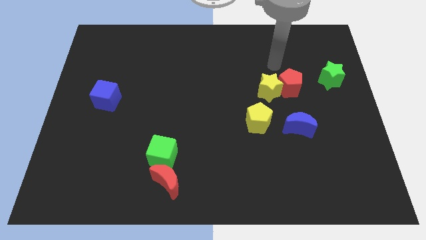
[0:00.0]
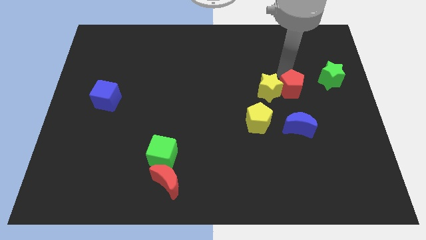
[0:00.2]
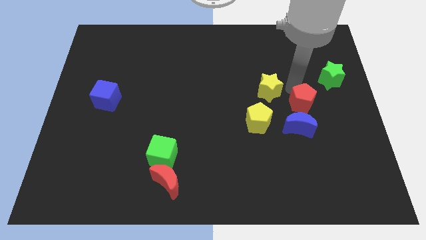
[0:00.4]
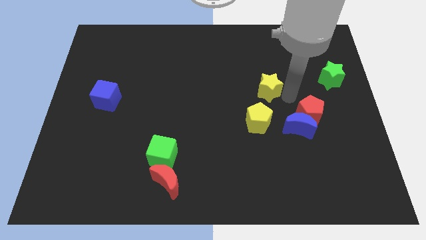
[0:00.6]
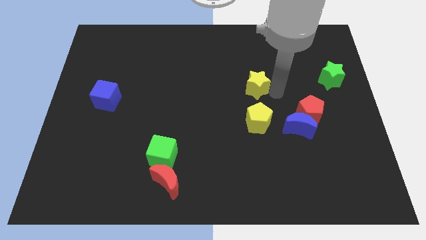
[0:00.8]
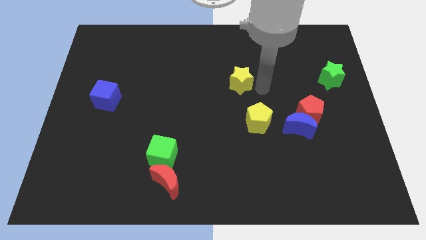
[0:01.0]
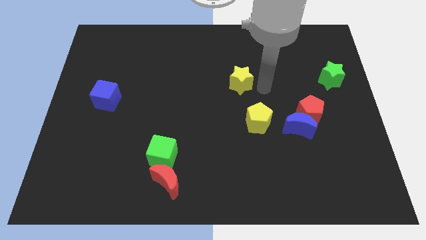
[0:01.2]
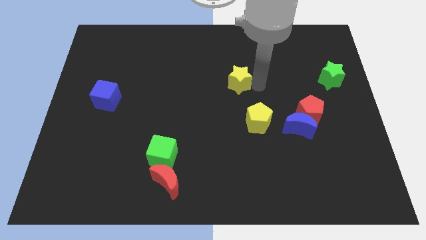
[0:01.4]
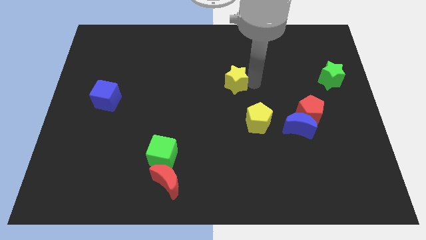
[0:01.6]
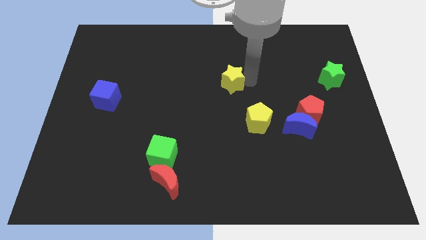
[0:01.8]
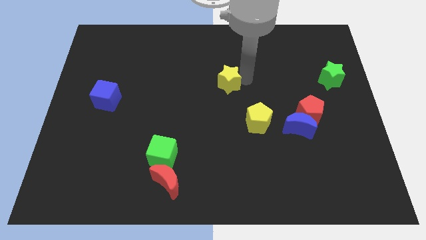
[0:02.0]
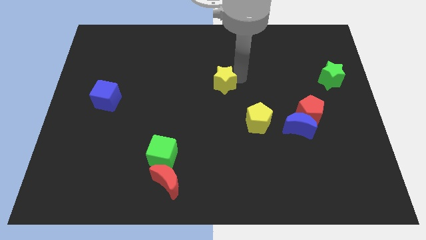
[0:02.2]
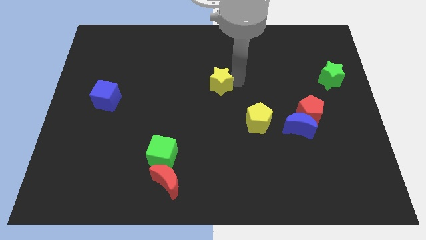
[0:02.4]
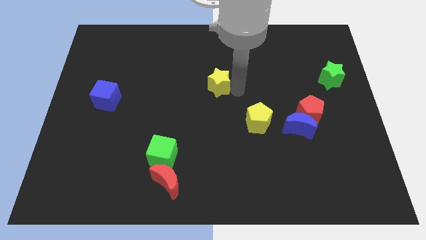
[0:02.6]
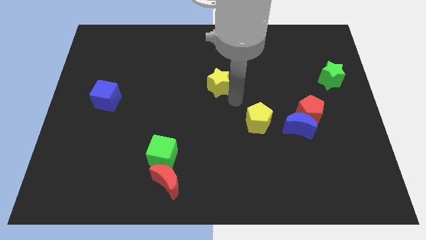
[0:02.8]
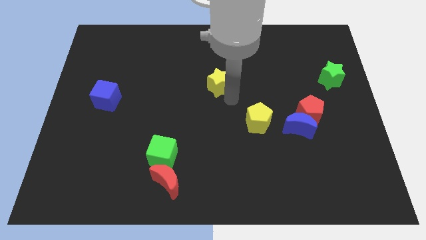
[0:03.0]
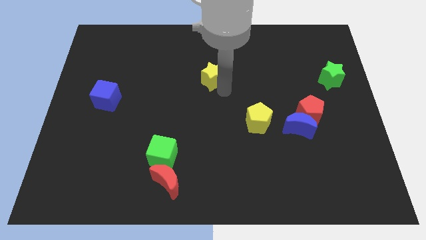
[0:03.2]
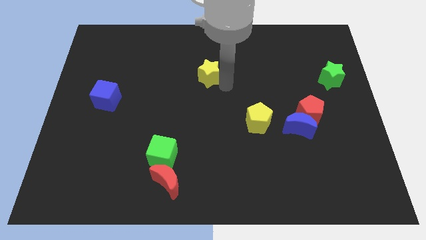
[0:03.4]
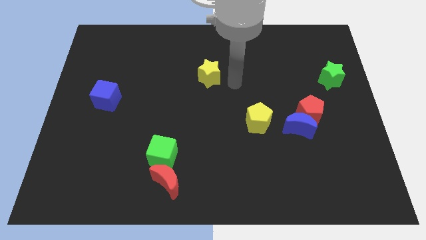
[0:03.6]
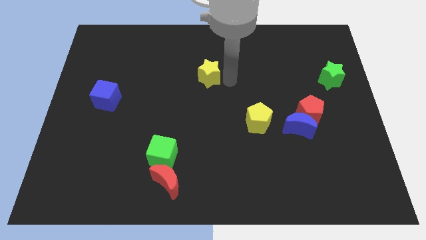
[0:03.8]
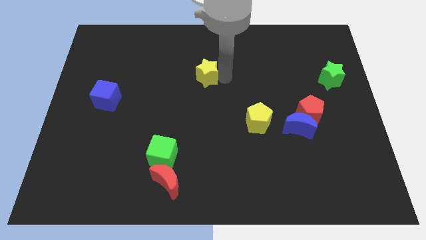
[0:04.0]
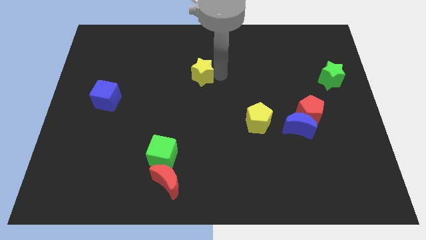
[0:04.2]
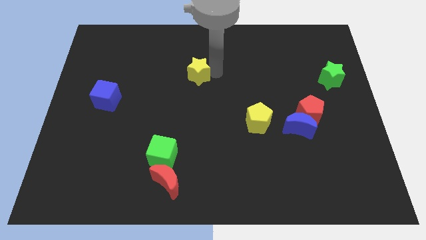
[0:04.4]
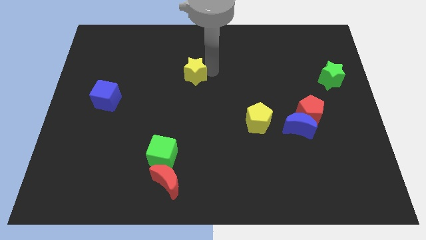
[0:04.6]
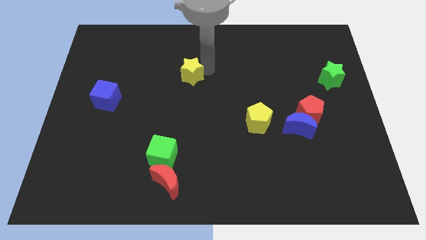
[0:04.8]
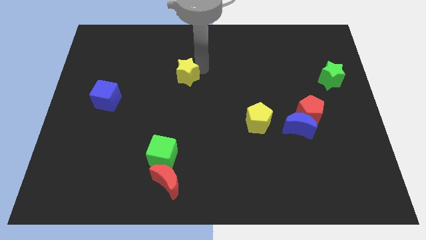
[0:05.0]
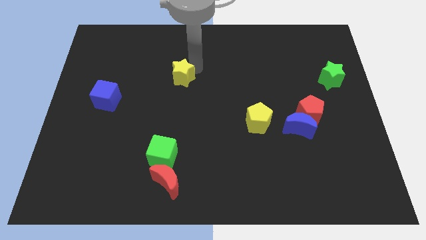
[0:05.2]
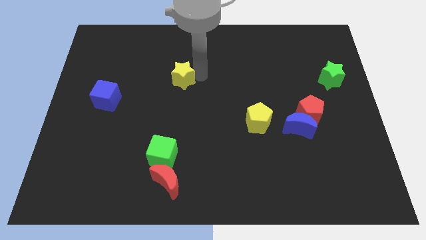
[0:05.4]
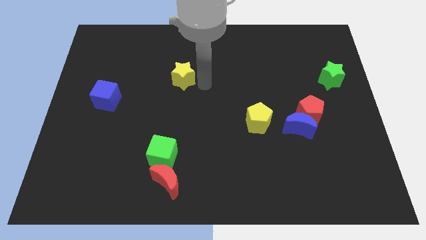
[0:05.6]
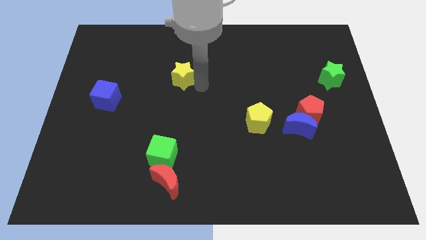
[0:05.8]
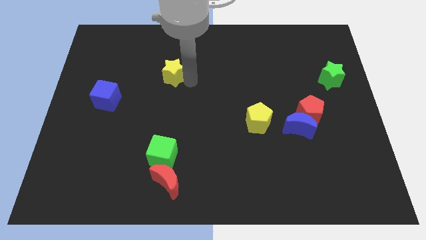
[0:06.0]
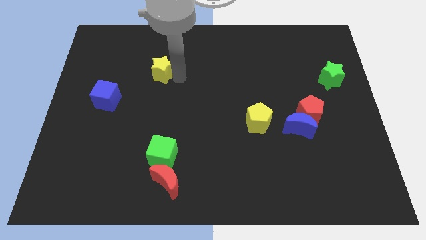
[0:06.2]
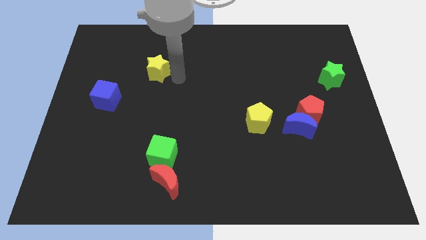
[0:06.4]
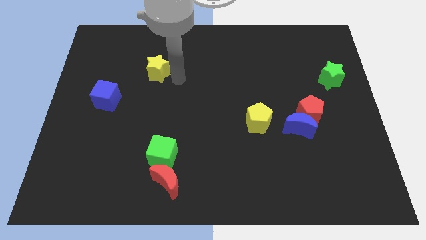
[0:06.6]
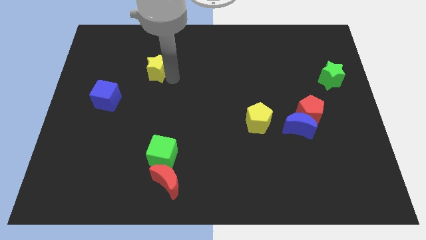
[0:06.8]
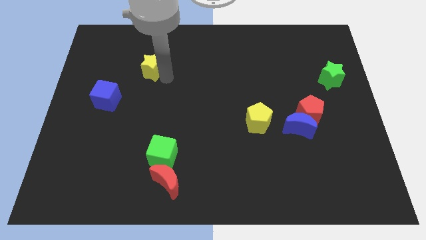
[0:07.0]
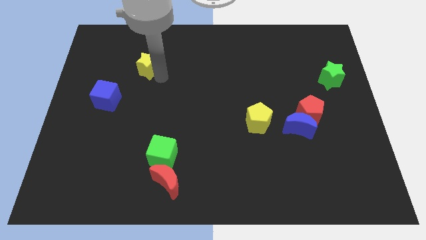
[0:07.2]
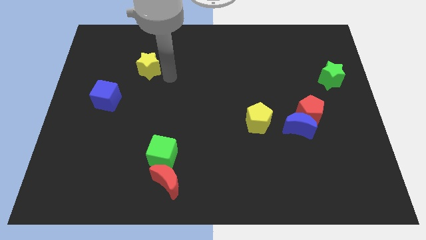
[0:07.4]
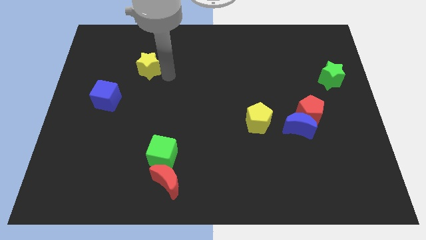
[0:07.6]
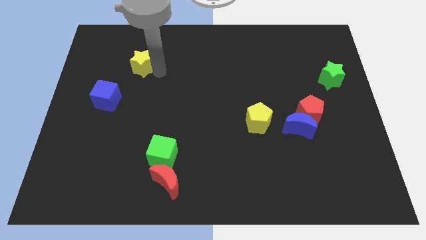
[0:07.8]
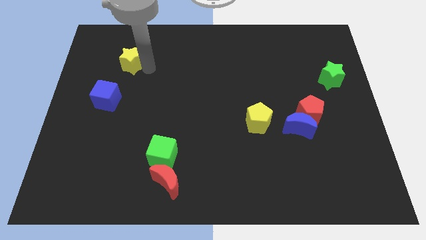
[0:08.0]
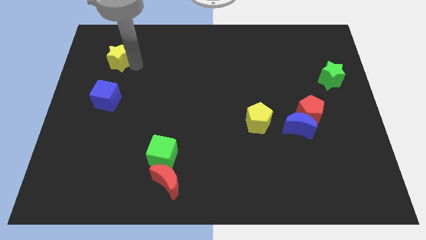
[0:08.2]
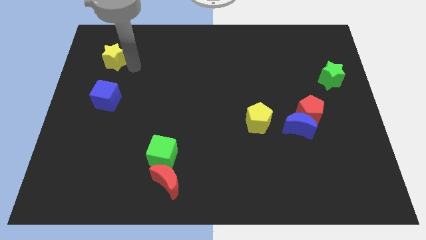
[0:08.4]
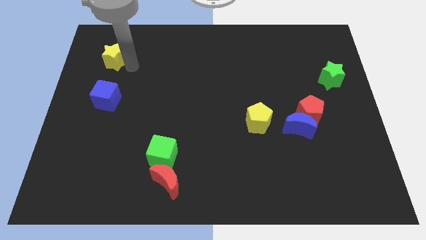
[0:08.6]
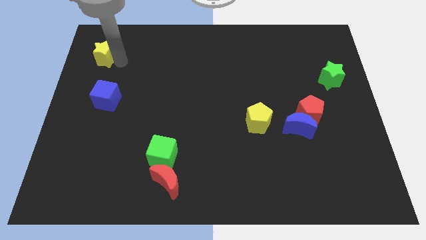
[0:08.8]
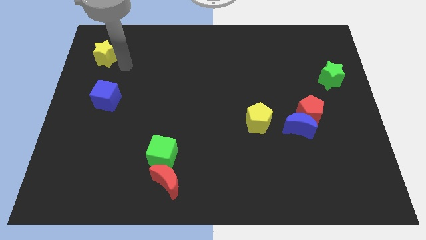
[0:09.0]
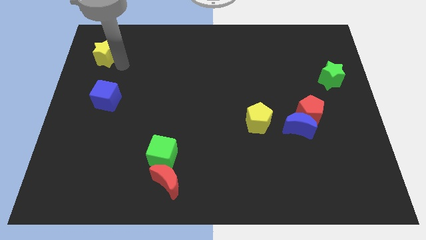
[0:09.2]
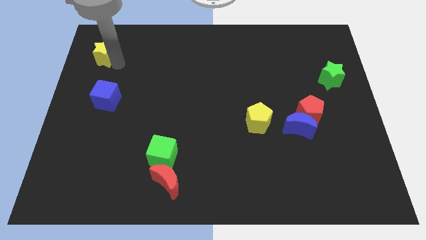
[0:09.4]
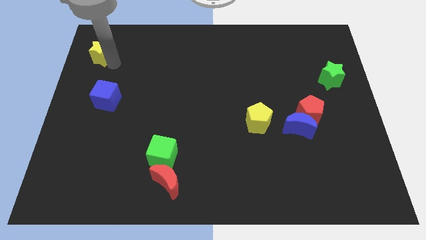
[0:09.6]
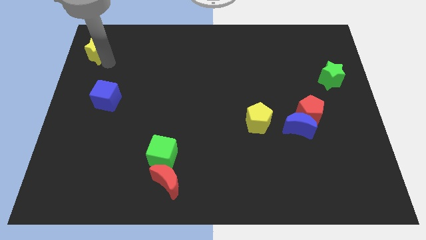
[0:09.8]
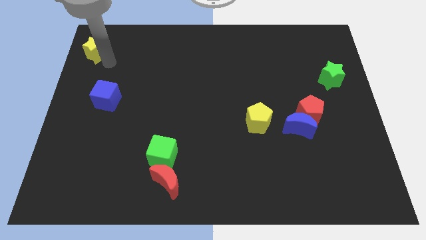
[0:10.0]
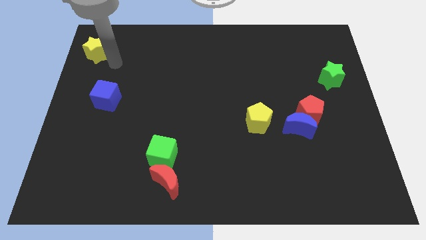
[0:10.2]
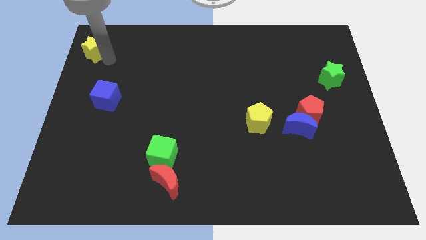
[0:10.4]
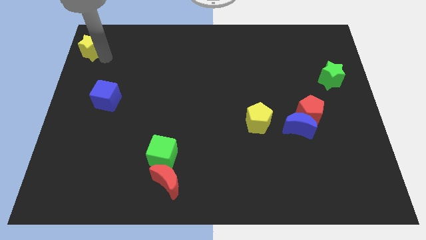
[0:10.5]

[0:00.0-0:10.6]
slide the yellow star to the top left corner

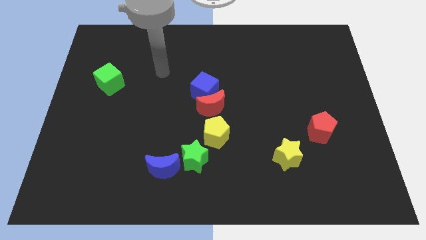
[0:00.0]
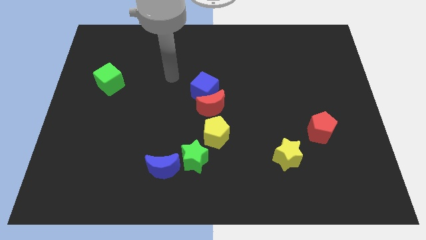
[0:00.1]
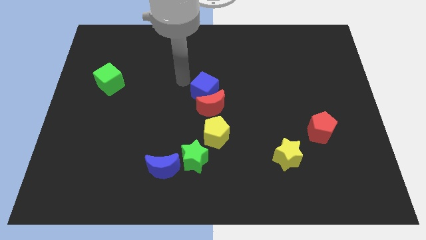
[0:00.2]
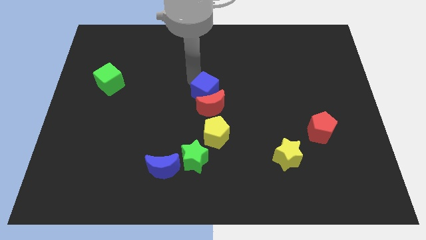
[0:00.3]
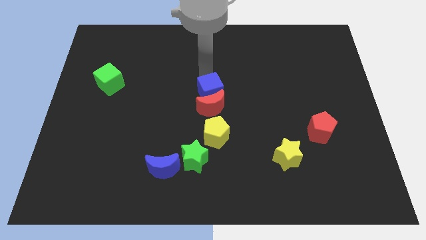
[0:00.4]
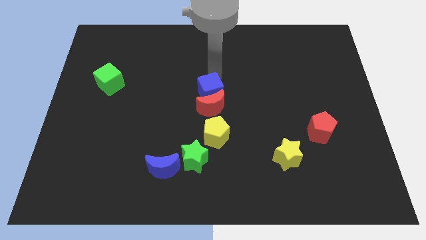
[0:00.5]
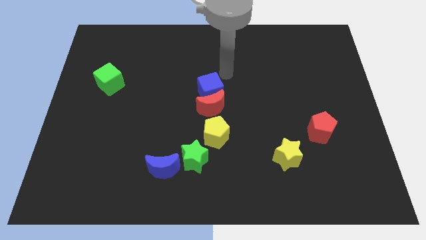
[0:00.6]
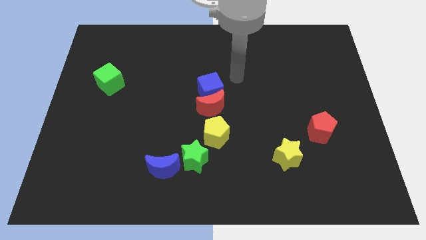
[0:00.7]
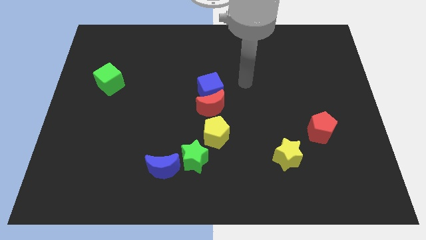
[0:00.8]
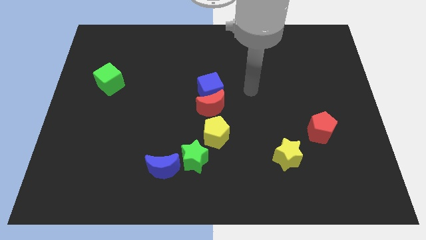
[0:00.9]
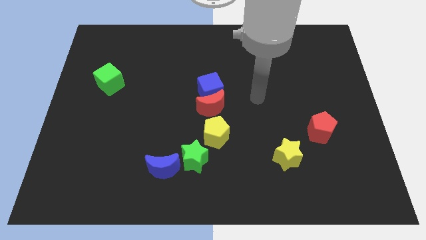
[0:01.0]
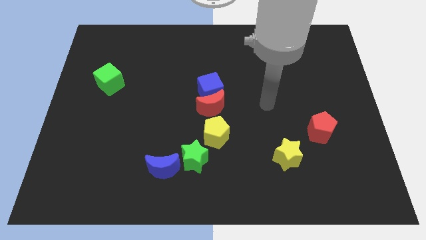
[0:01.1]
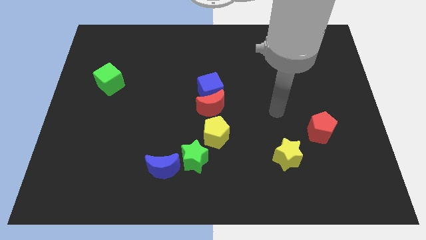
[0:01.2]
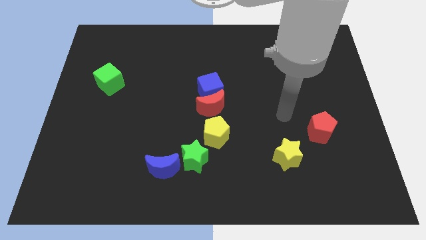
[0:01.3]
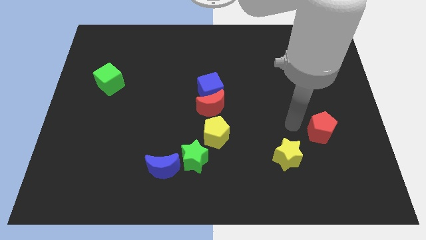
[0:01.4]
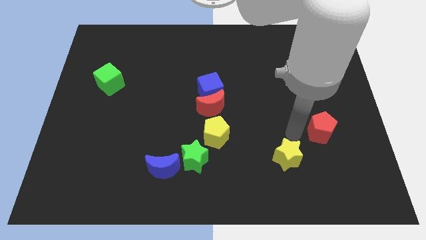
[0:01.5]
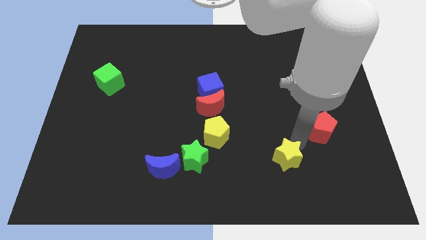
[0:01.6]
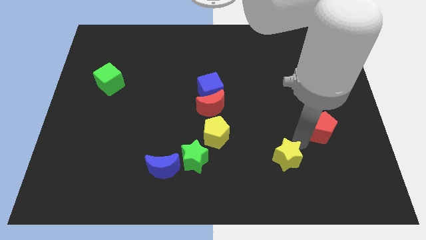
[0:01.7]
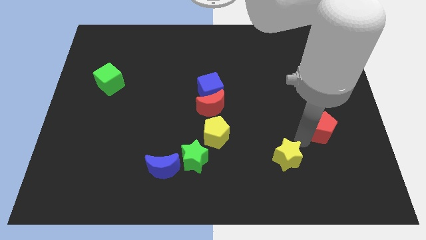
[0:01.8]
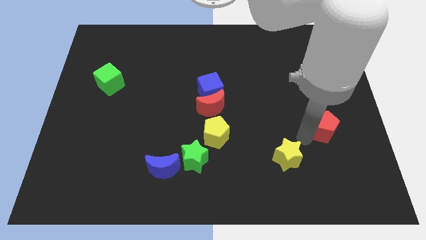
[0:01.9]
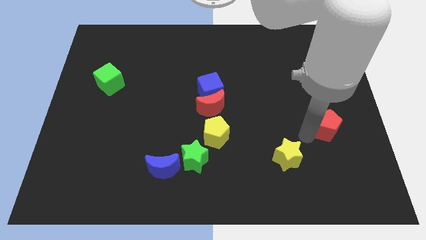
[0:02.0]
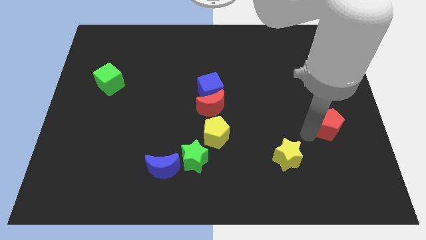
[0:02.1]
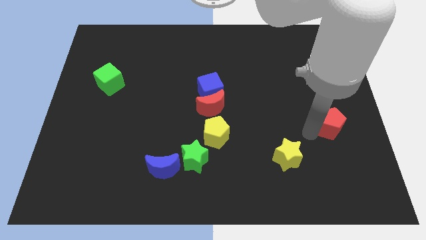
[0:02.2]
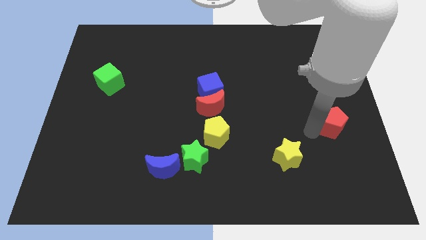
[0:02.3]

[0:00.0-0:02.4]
move the red pentagon to the right side of the board
